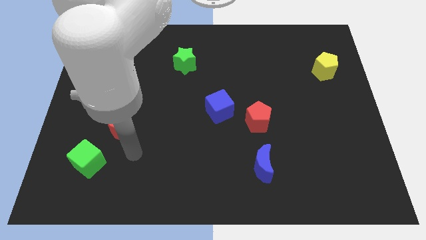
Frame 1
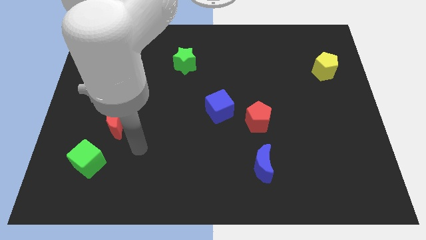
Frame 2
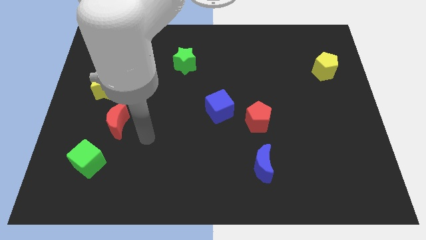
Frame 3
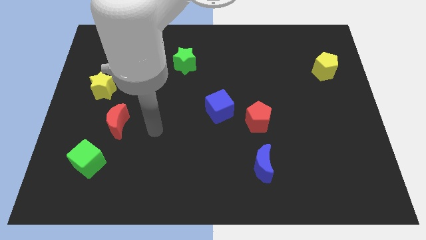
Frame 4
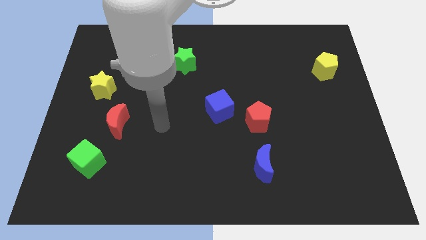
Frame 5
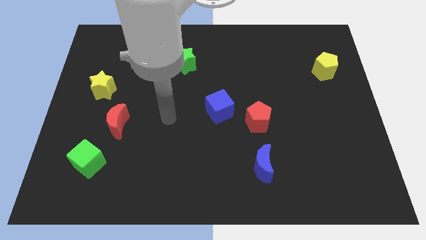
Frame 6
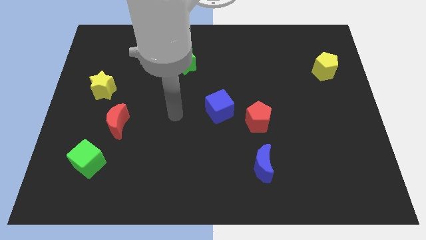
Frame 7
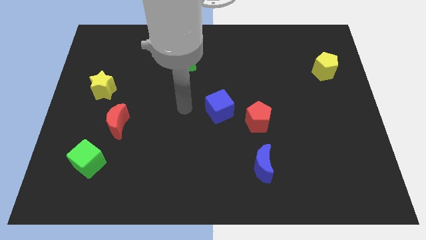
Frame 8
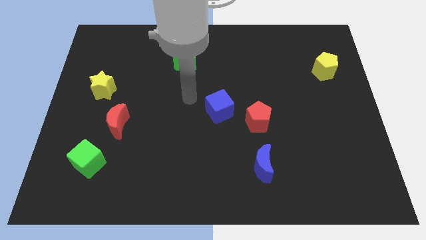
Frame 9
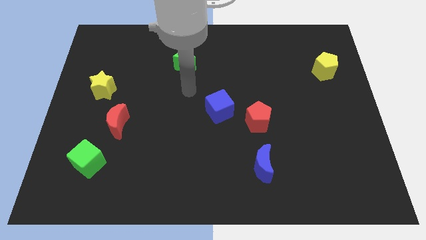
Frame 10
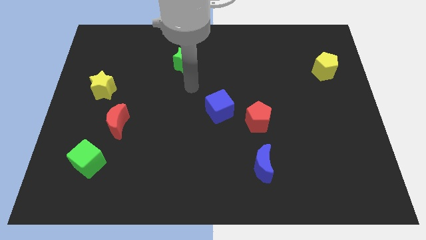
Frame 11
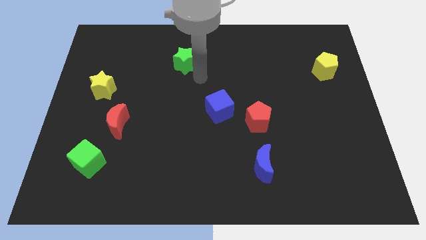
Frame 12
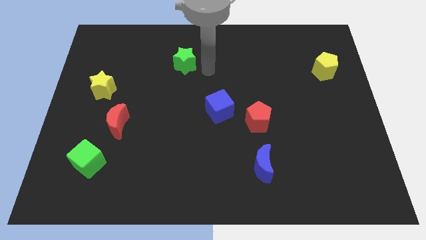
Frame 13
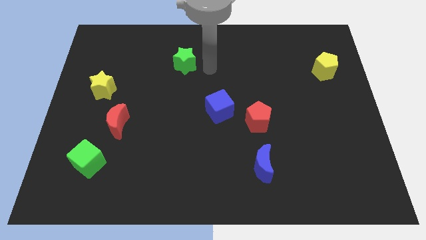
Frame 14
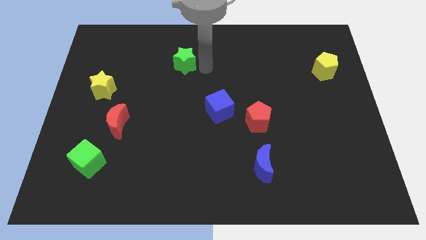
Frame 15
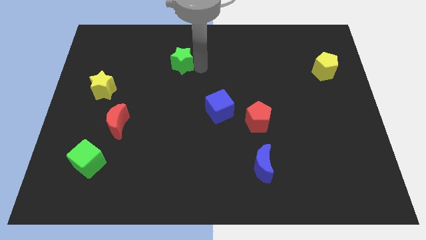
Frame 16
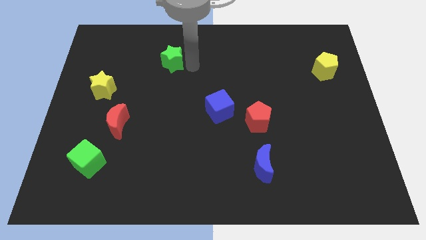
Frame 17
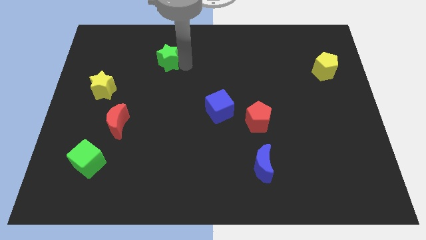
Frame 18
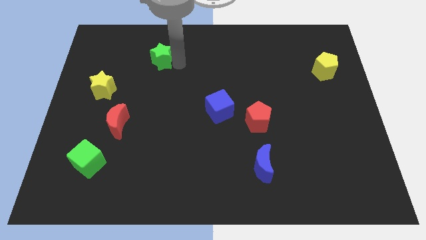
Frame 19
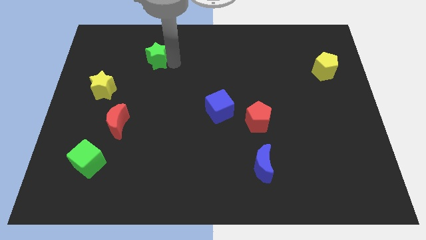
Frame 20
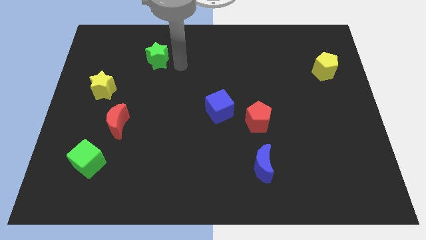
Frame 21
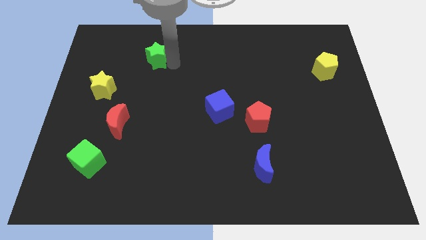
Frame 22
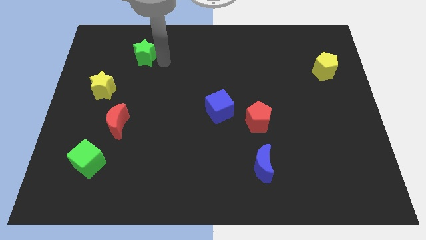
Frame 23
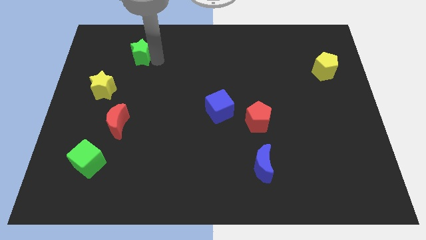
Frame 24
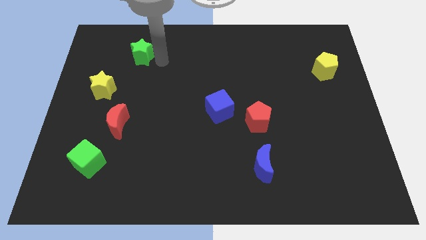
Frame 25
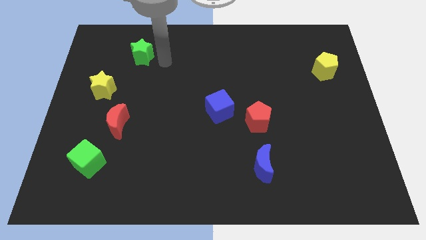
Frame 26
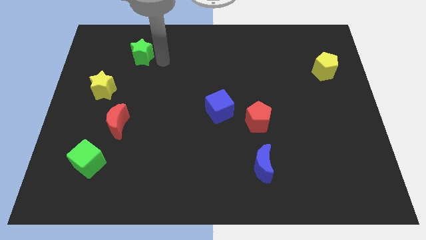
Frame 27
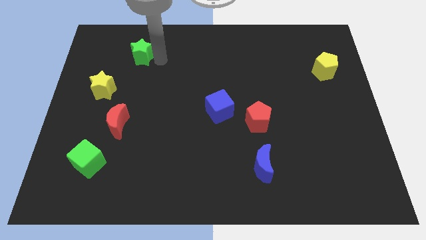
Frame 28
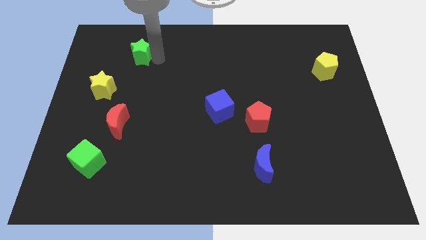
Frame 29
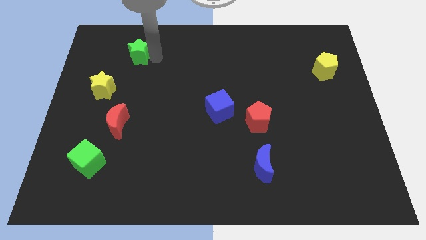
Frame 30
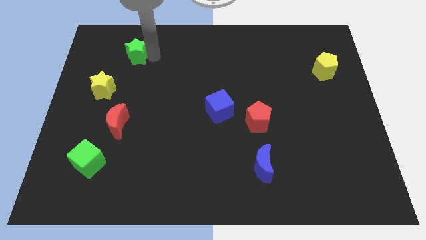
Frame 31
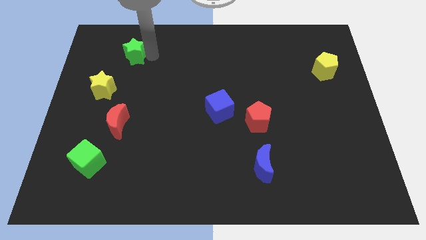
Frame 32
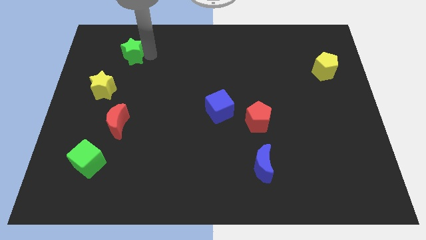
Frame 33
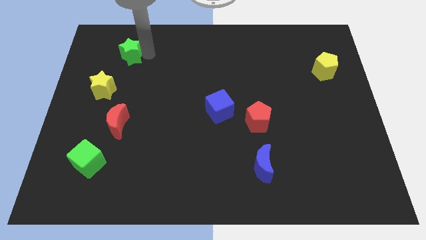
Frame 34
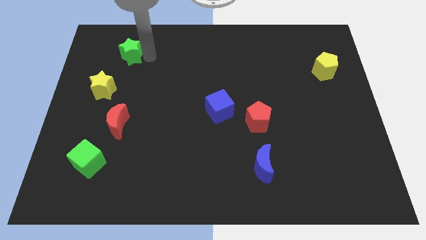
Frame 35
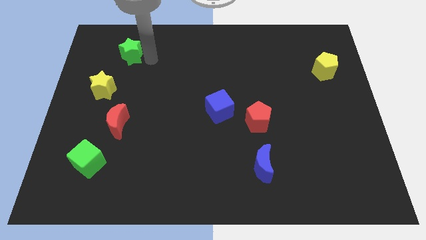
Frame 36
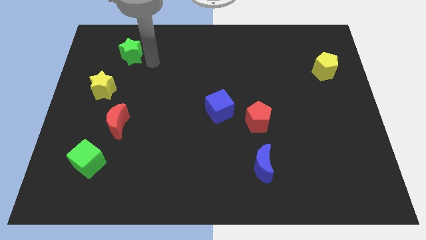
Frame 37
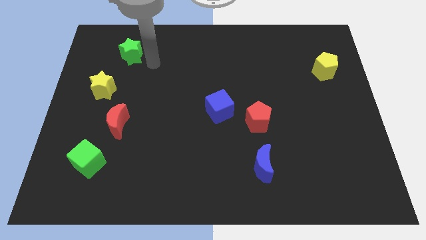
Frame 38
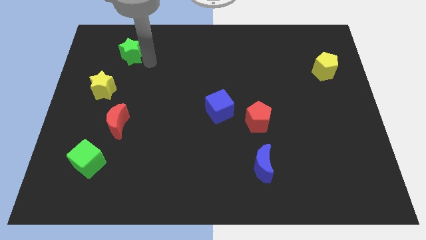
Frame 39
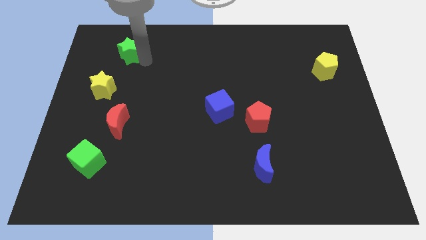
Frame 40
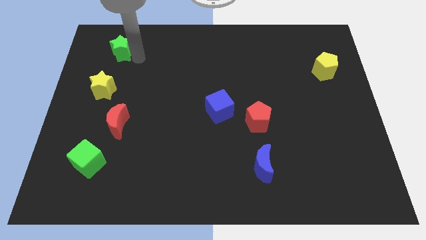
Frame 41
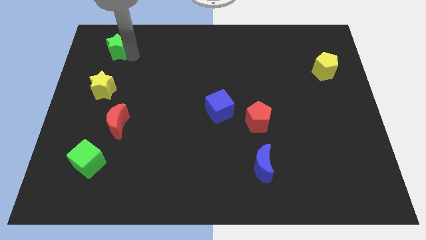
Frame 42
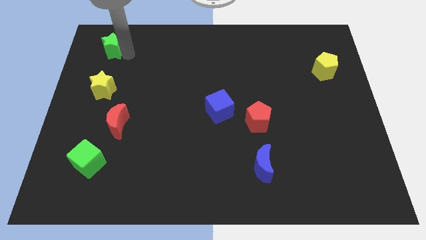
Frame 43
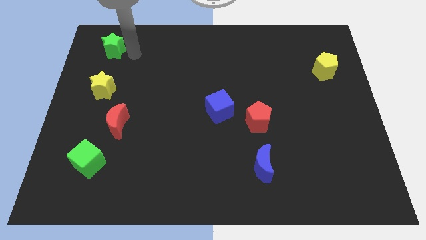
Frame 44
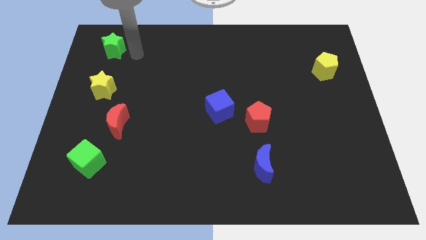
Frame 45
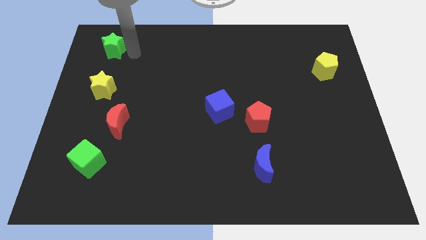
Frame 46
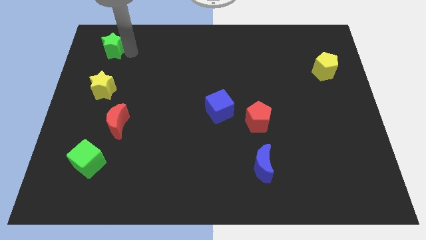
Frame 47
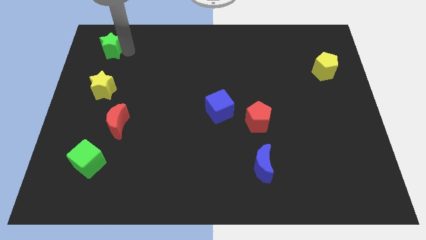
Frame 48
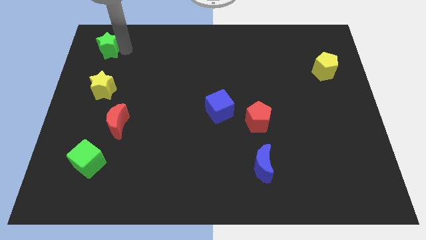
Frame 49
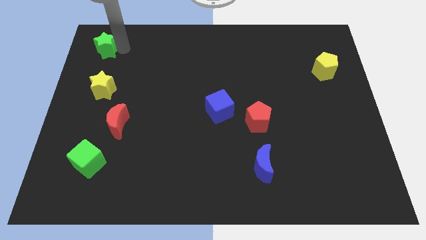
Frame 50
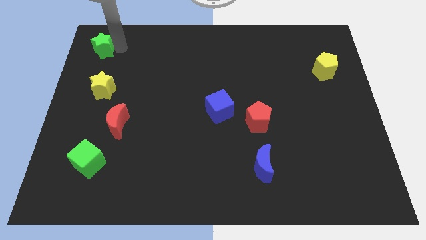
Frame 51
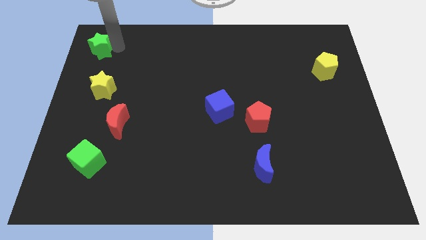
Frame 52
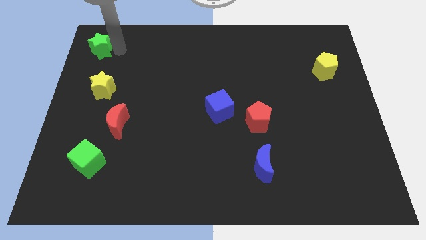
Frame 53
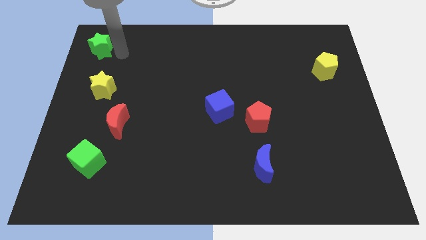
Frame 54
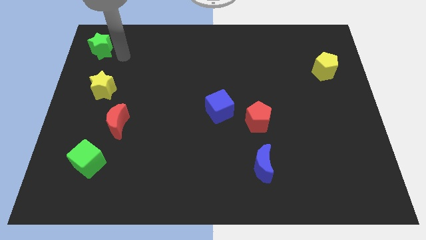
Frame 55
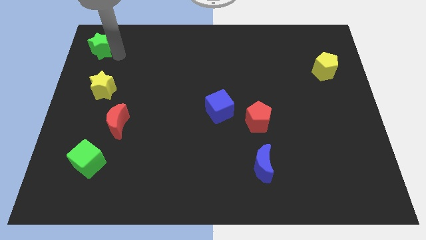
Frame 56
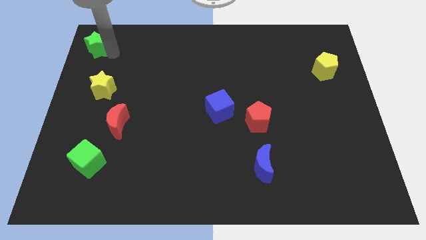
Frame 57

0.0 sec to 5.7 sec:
push the green star to the upper left corner

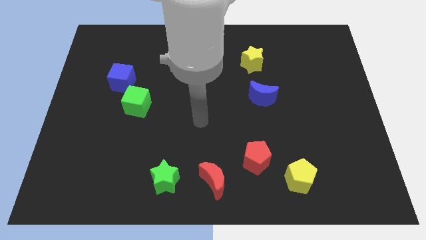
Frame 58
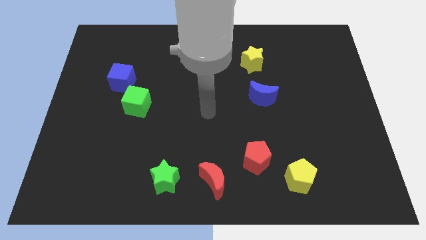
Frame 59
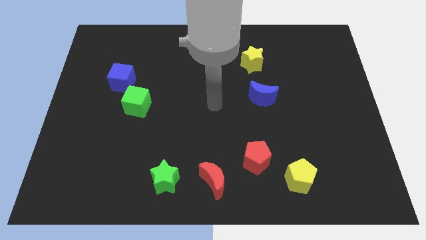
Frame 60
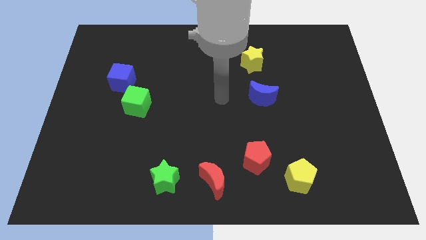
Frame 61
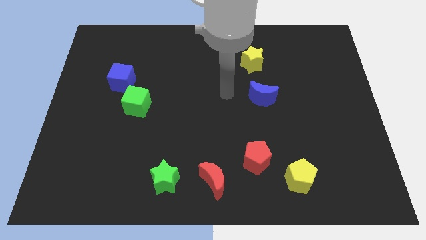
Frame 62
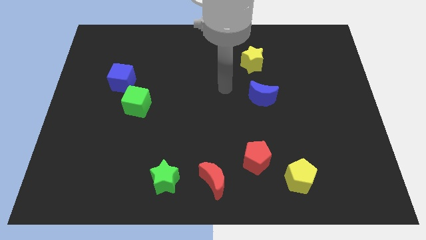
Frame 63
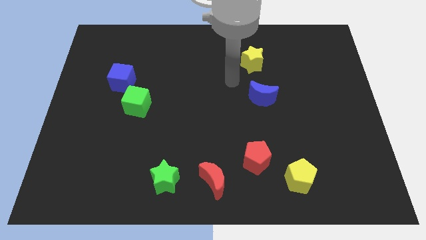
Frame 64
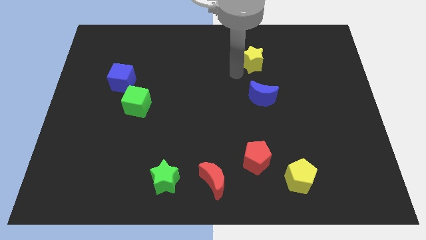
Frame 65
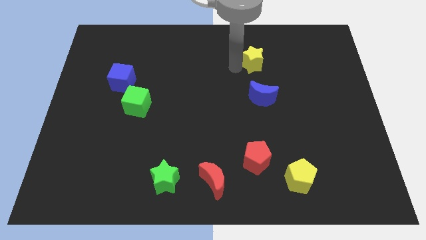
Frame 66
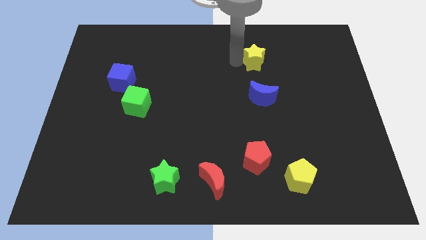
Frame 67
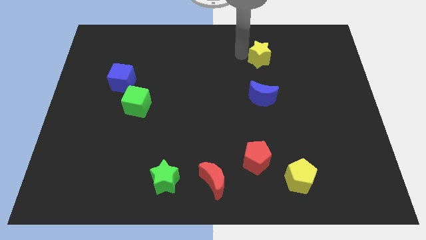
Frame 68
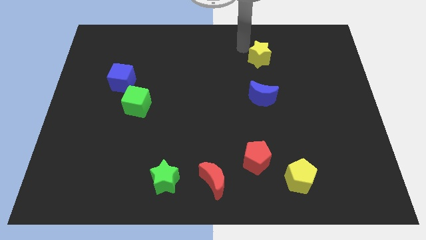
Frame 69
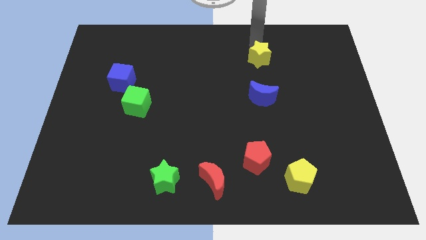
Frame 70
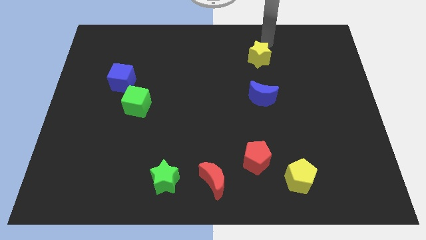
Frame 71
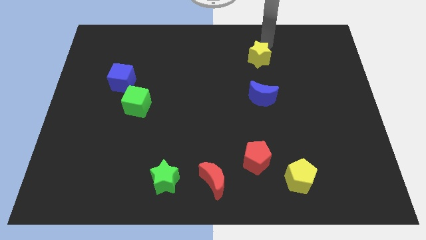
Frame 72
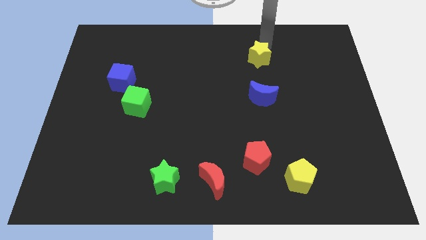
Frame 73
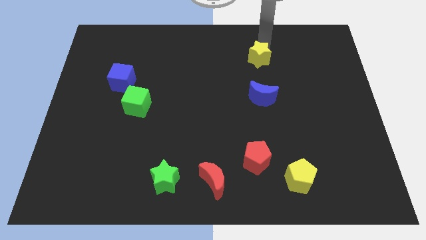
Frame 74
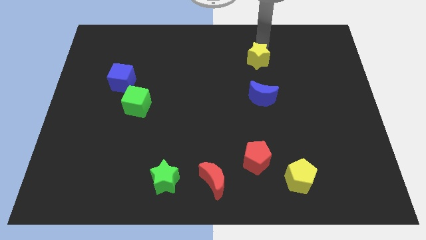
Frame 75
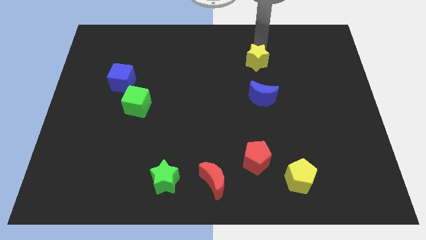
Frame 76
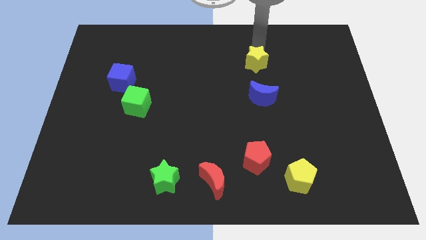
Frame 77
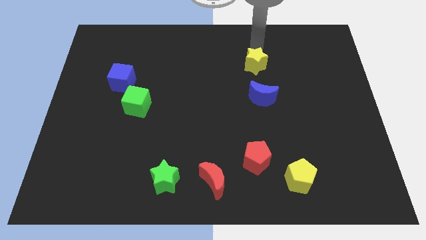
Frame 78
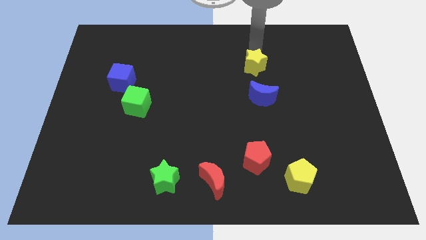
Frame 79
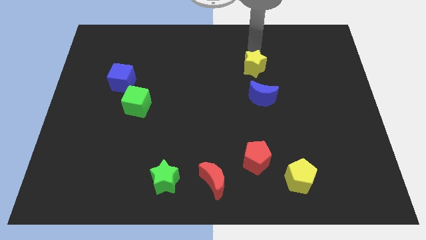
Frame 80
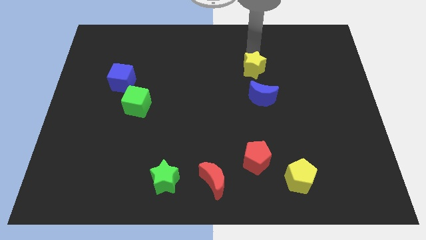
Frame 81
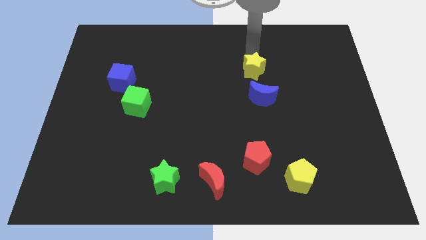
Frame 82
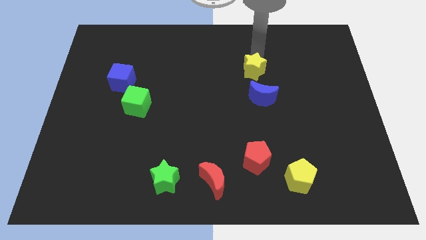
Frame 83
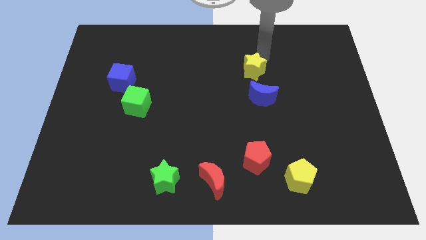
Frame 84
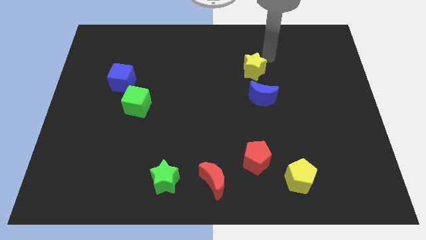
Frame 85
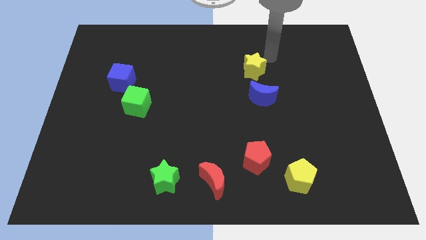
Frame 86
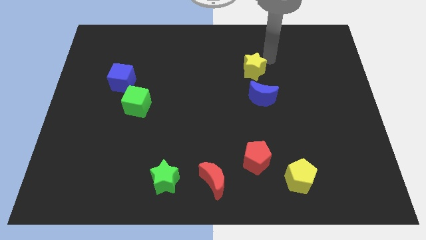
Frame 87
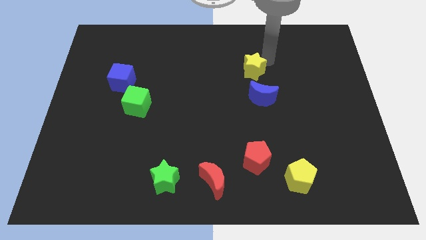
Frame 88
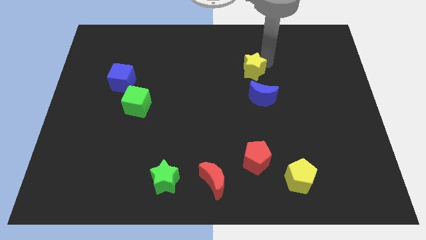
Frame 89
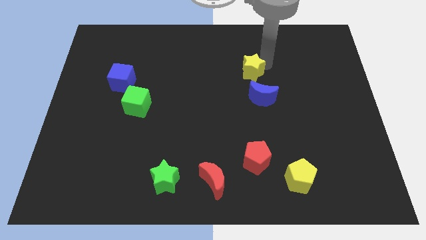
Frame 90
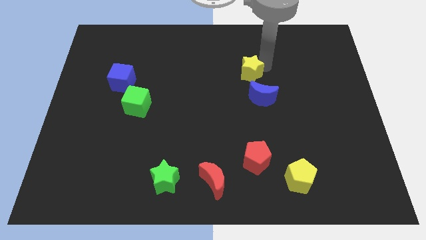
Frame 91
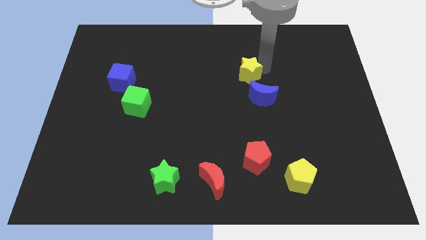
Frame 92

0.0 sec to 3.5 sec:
push the yellow star to the center
